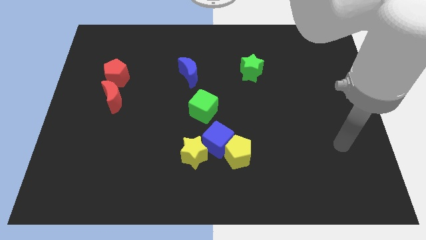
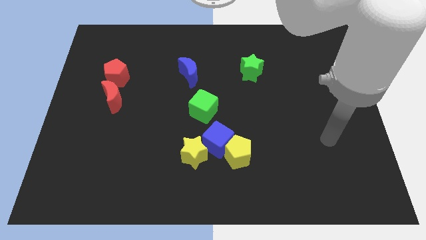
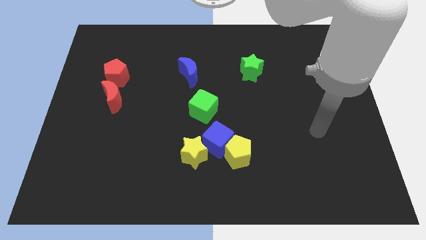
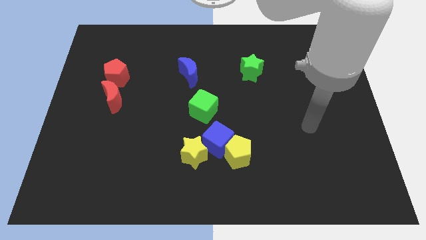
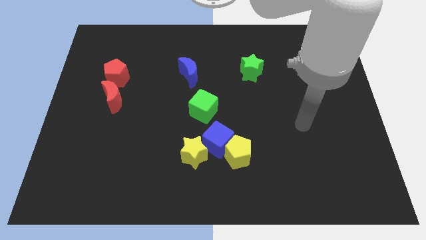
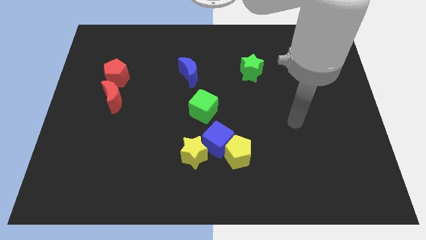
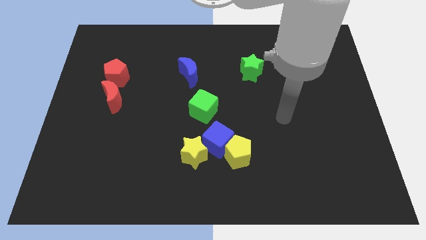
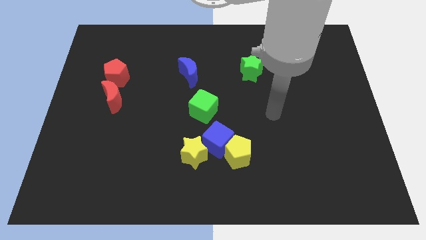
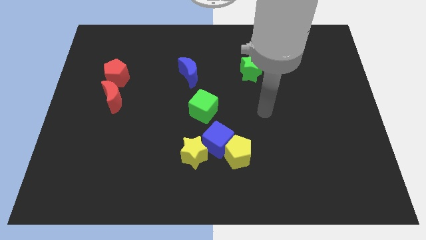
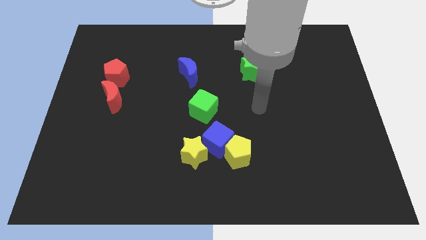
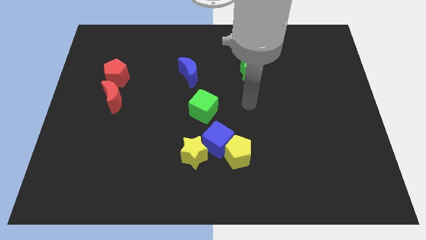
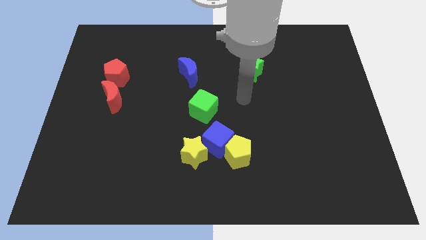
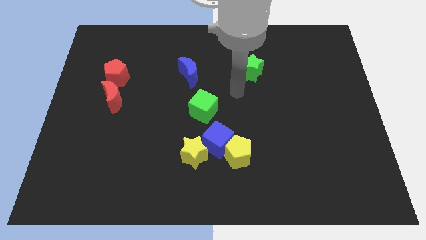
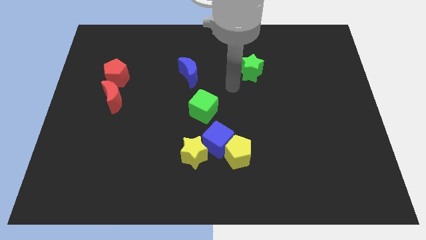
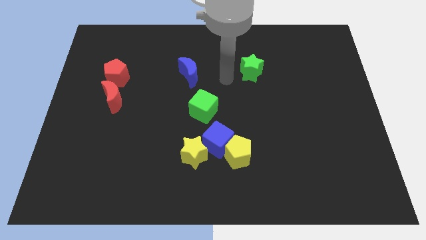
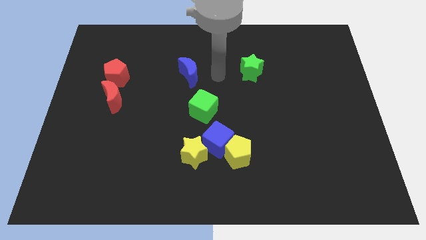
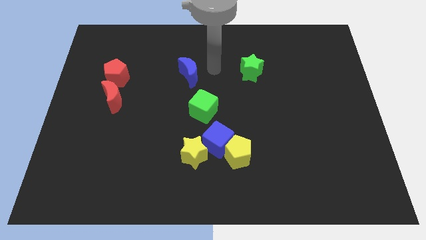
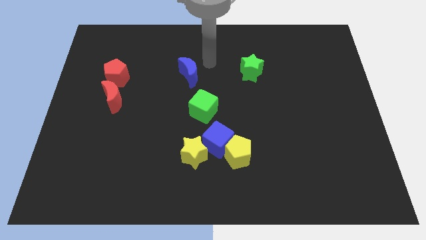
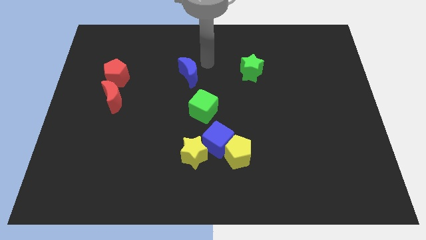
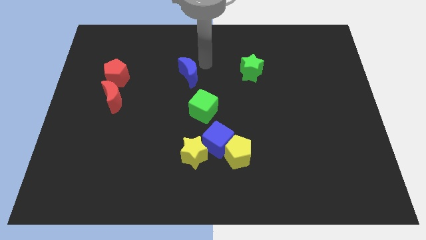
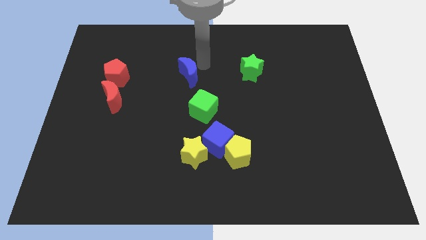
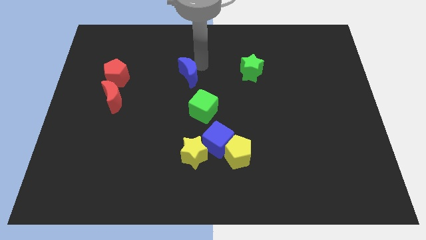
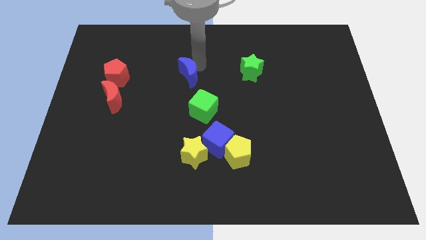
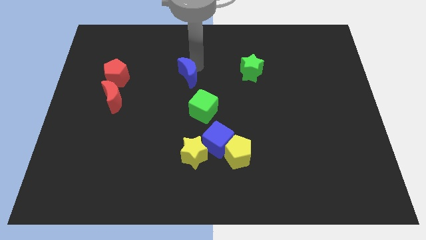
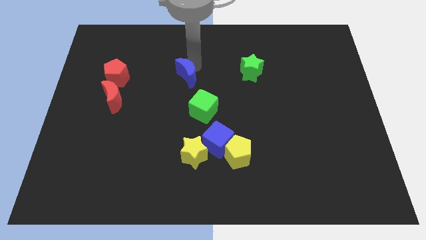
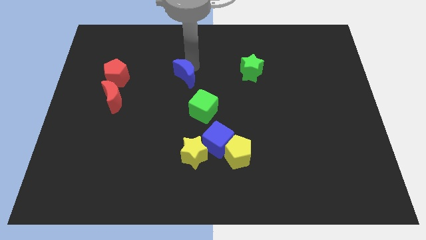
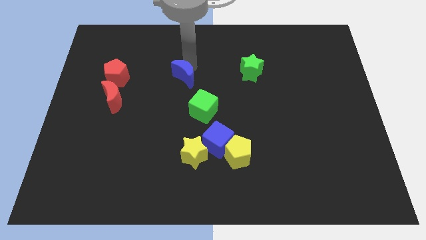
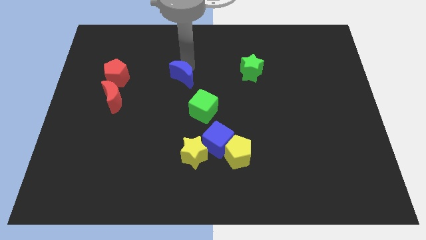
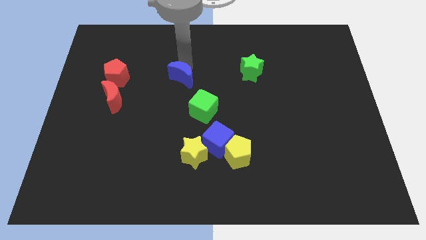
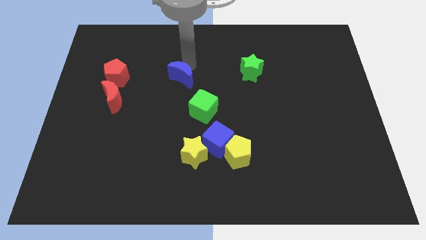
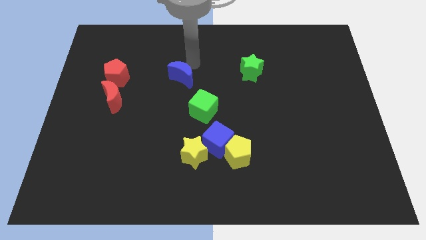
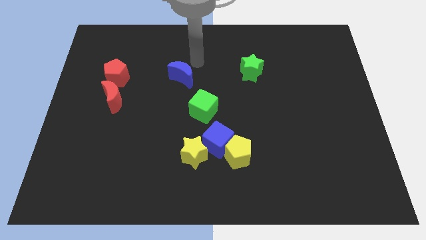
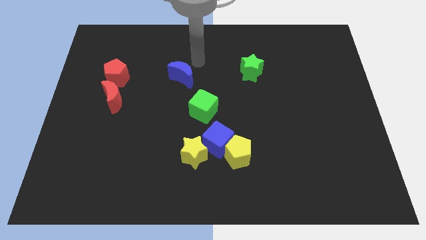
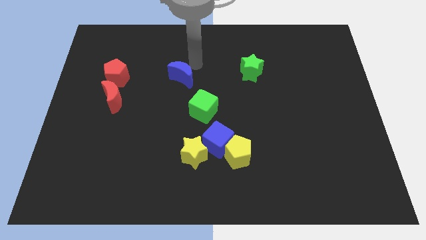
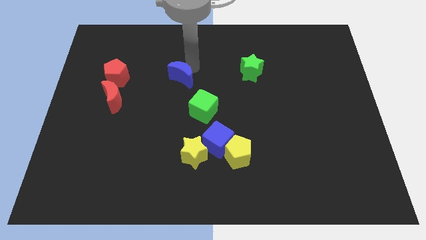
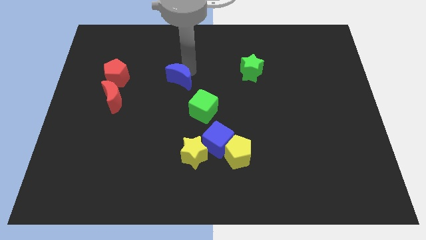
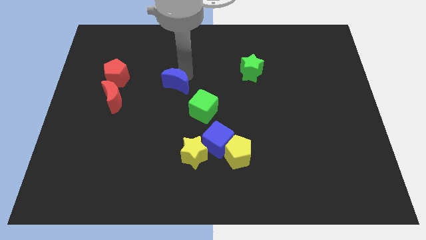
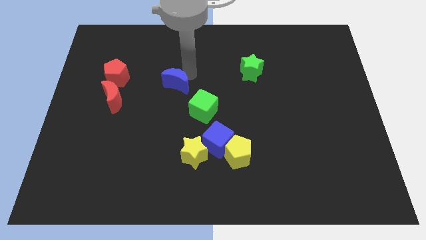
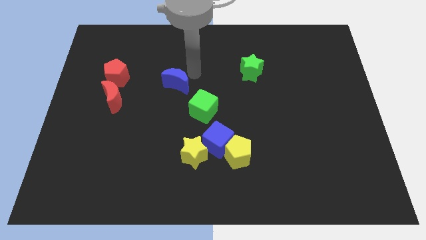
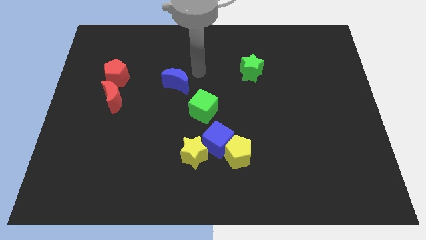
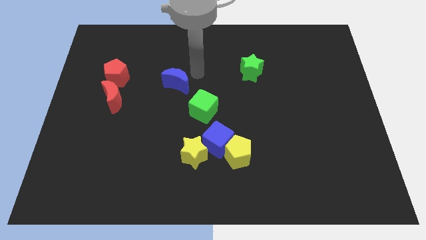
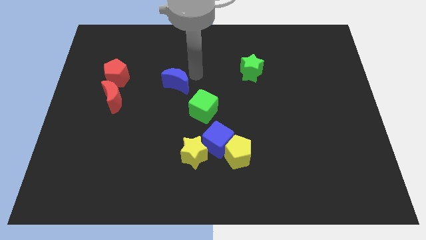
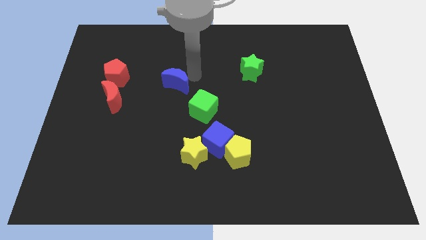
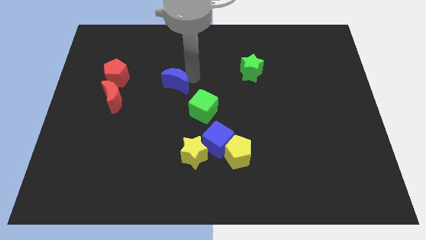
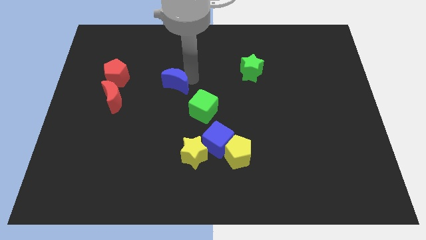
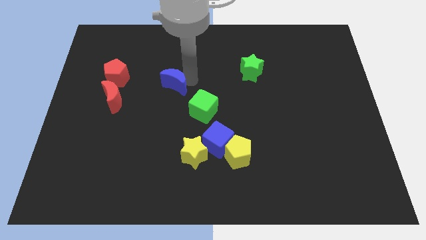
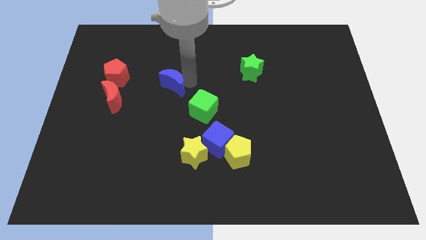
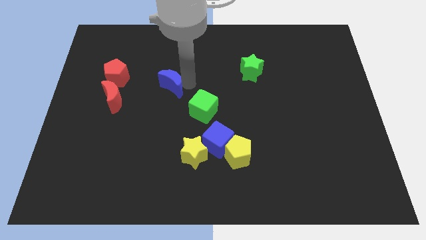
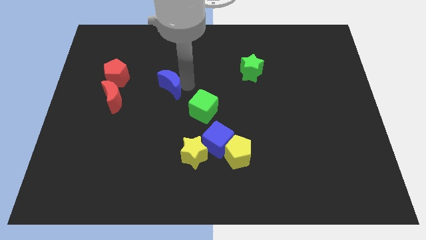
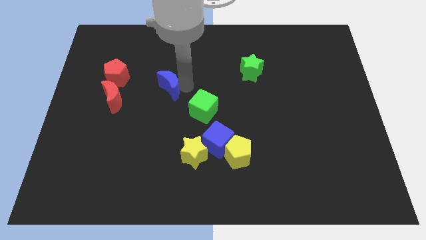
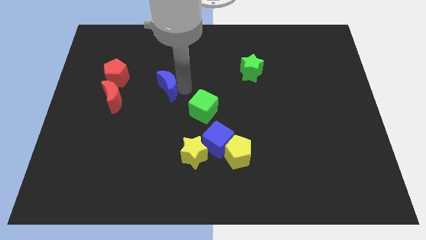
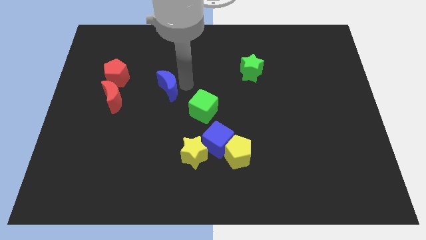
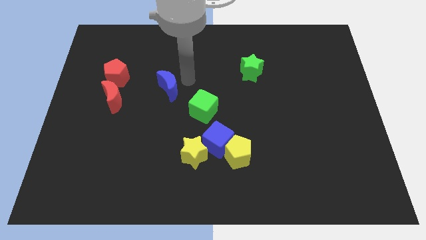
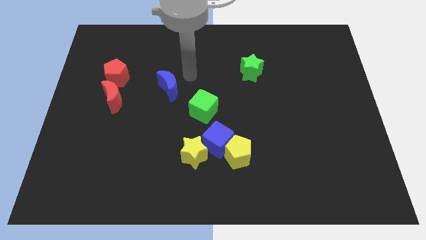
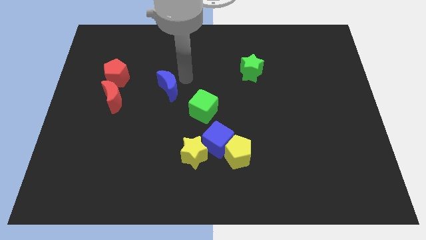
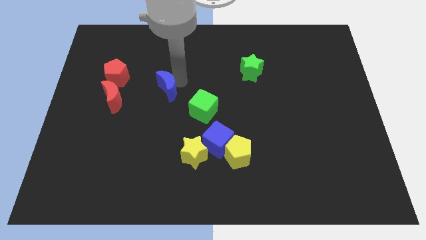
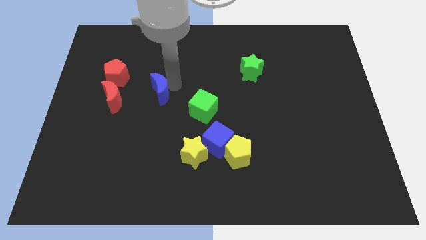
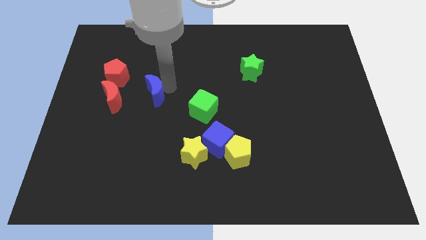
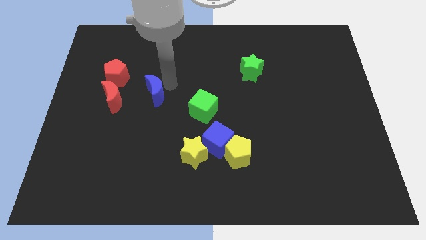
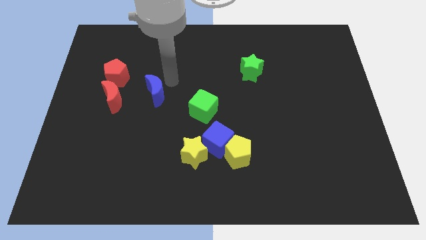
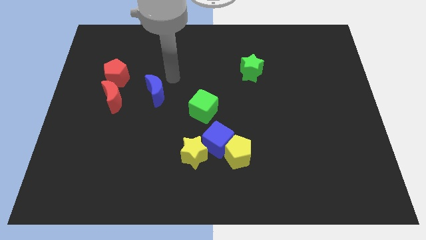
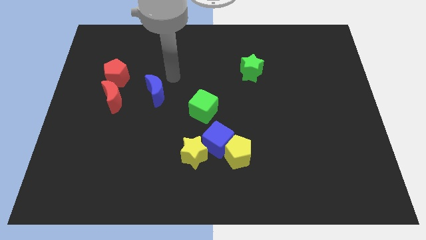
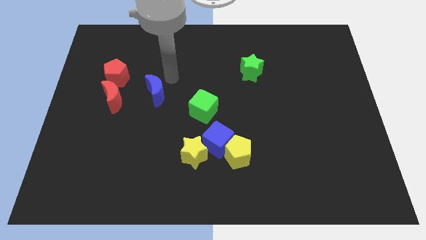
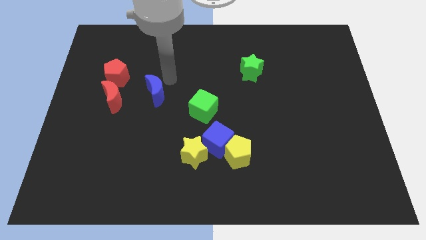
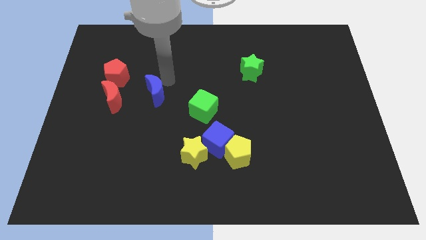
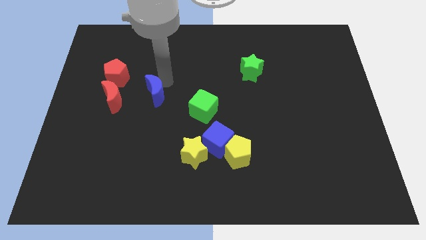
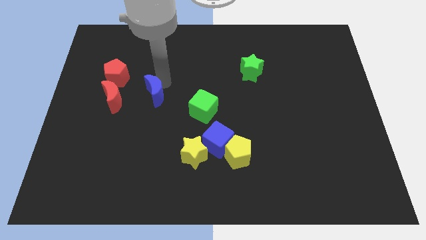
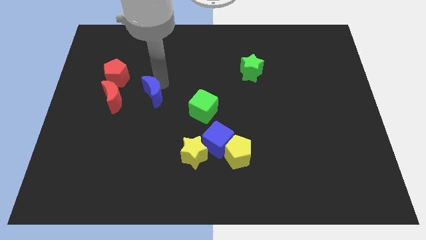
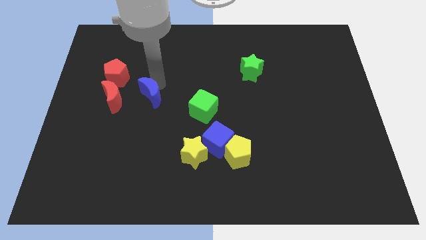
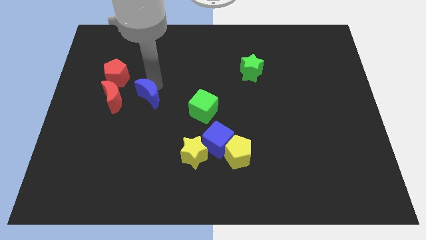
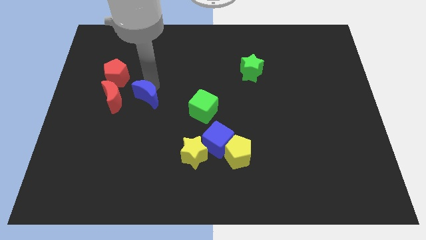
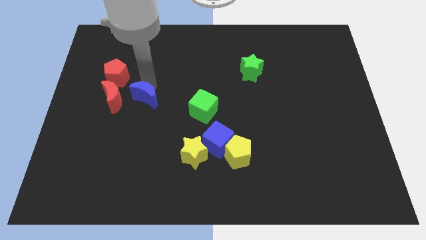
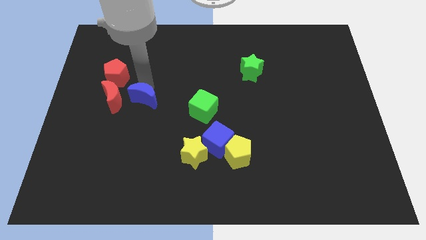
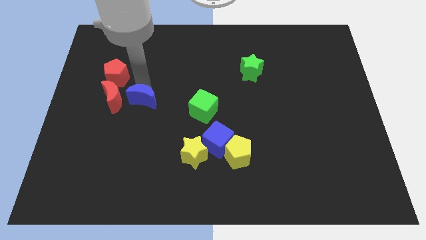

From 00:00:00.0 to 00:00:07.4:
put the blue moon to the bottom right of the red moon
